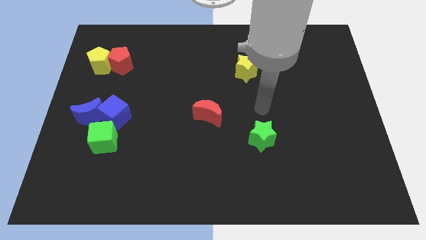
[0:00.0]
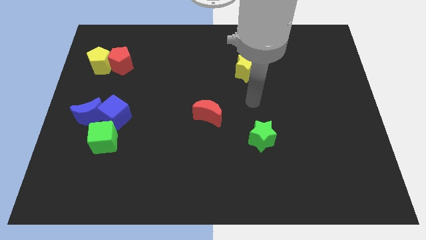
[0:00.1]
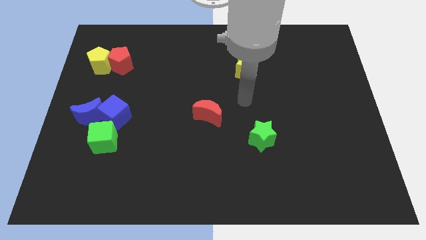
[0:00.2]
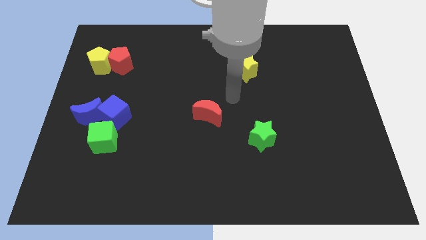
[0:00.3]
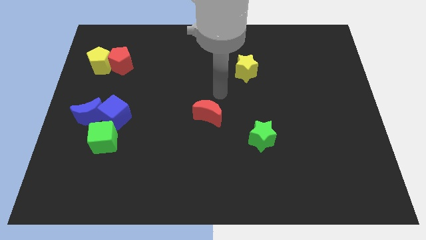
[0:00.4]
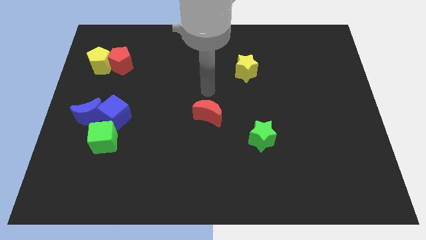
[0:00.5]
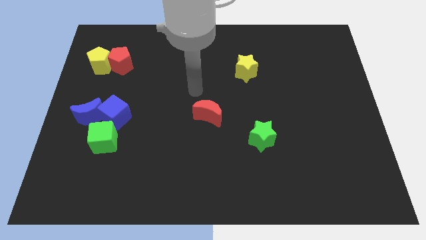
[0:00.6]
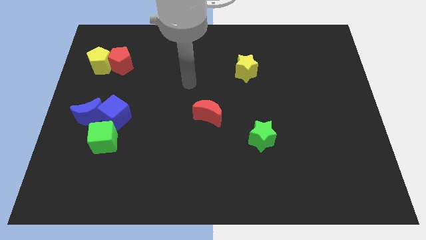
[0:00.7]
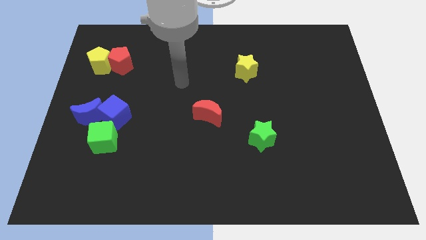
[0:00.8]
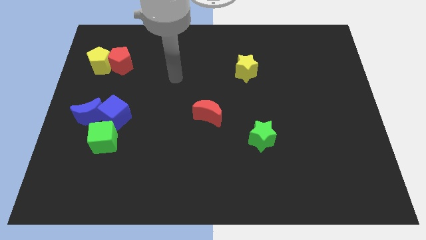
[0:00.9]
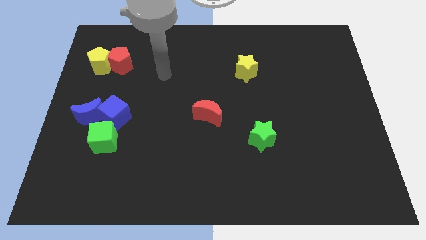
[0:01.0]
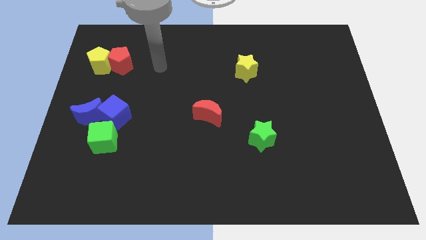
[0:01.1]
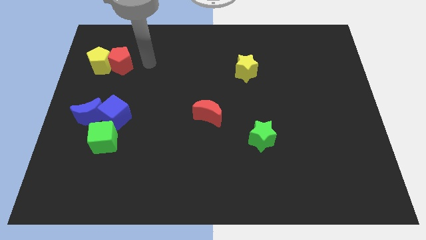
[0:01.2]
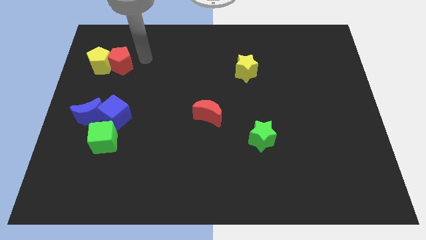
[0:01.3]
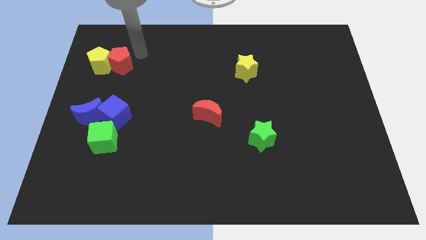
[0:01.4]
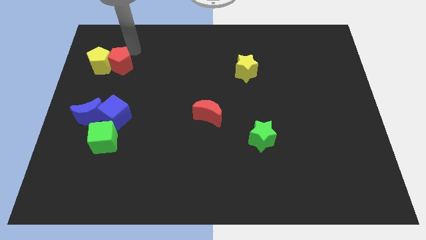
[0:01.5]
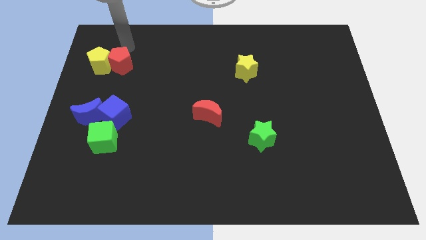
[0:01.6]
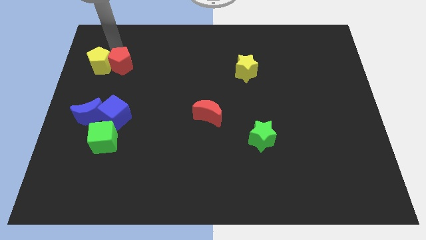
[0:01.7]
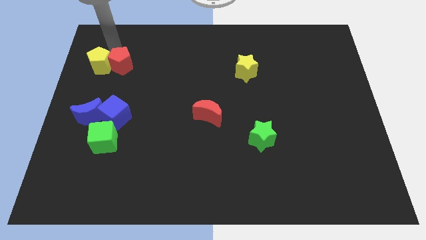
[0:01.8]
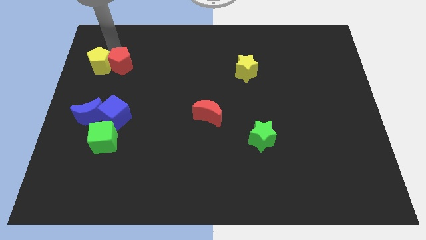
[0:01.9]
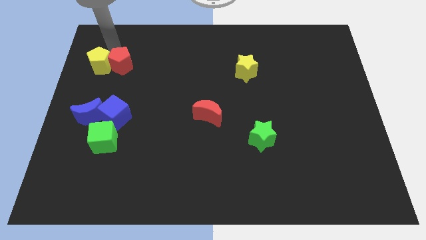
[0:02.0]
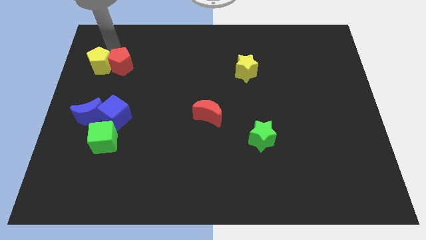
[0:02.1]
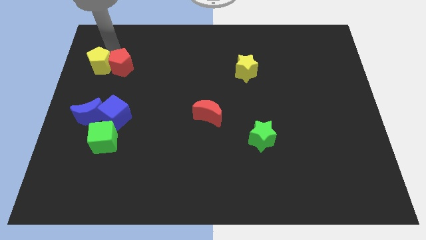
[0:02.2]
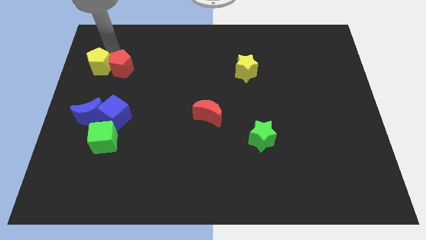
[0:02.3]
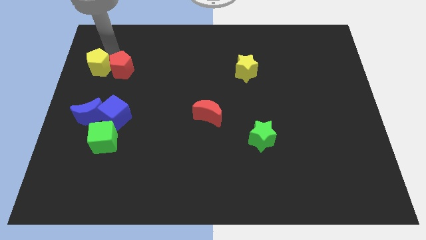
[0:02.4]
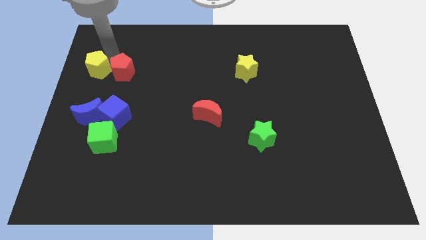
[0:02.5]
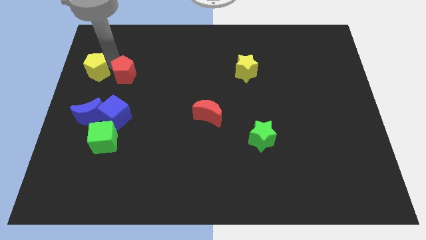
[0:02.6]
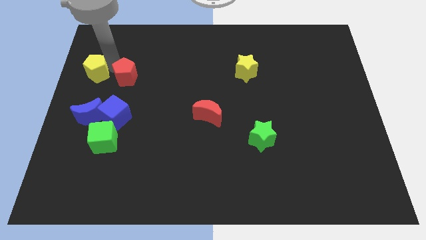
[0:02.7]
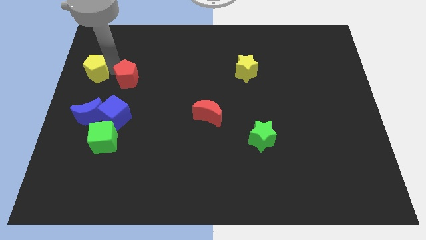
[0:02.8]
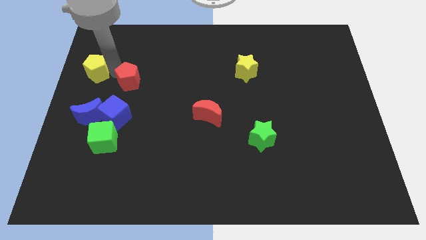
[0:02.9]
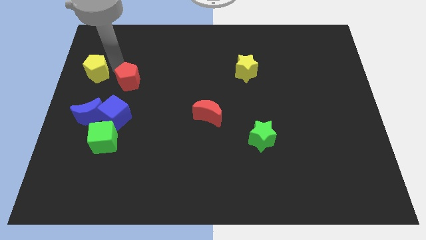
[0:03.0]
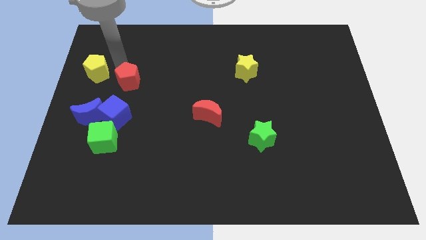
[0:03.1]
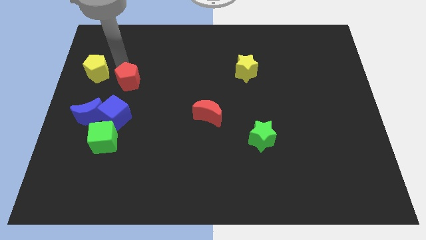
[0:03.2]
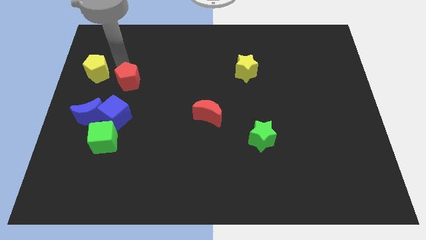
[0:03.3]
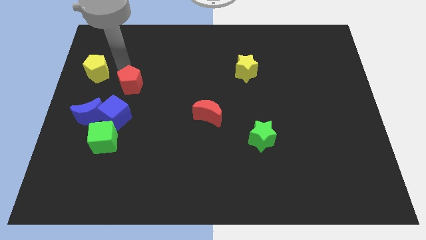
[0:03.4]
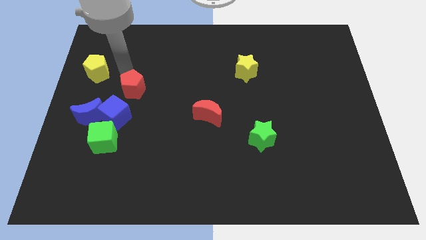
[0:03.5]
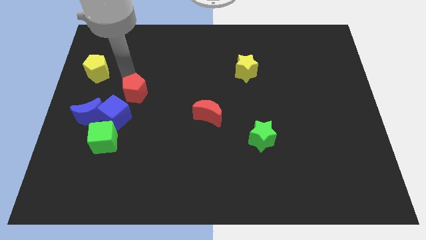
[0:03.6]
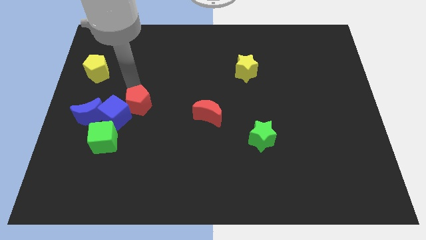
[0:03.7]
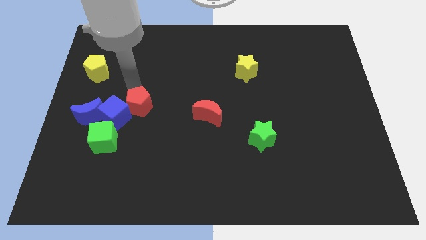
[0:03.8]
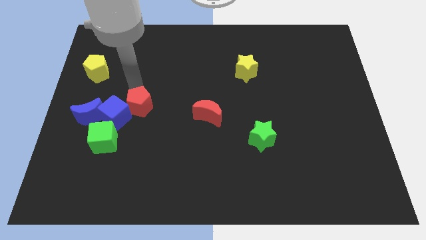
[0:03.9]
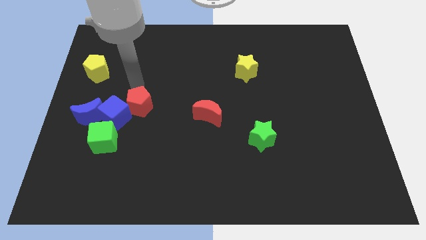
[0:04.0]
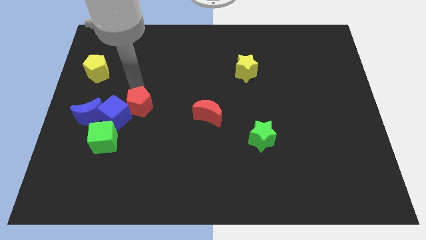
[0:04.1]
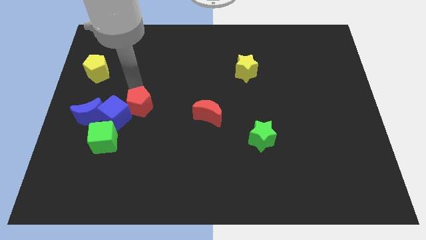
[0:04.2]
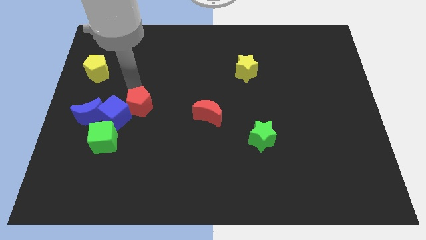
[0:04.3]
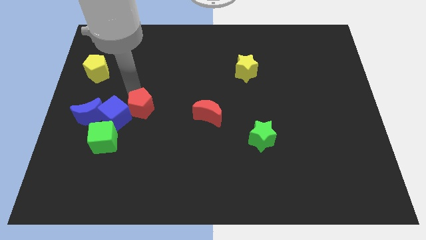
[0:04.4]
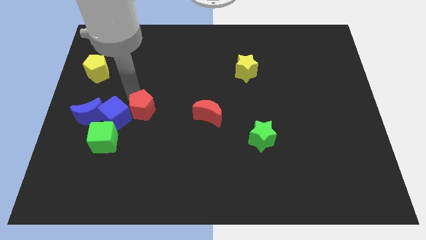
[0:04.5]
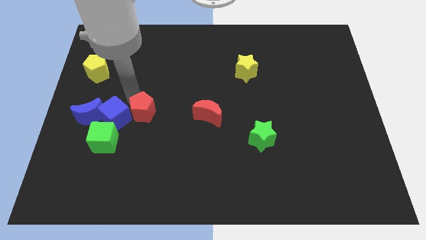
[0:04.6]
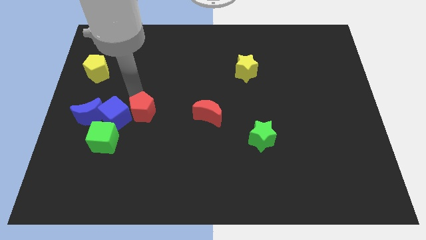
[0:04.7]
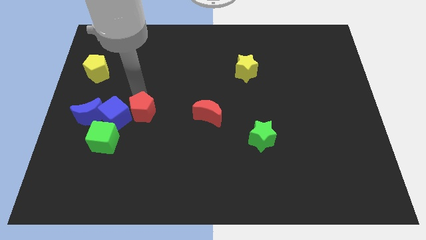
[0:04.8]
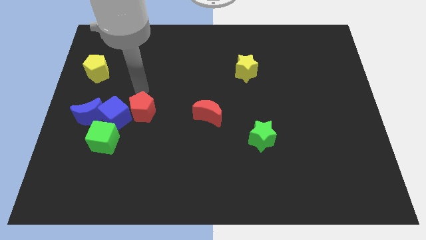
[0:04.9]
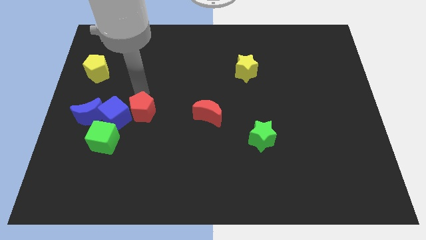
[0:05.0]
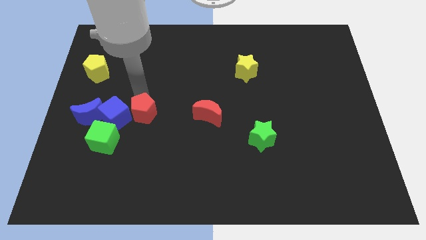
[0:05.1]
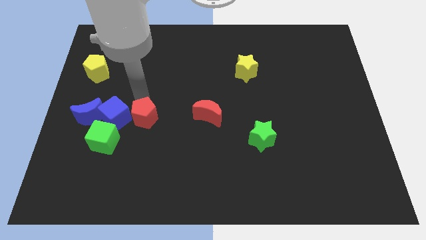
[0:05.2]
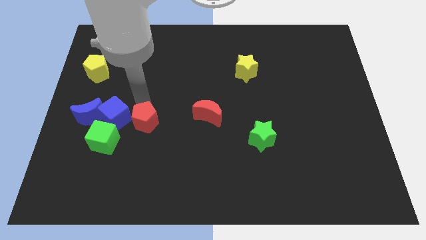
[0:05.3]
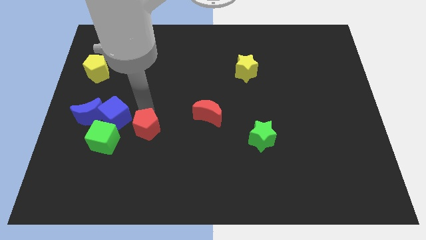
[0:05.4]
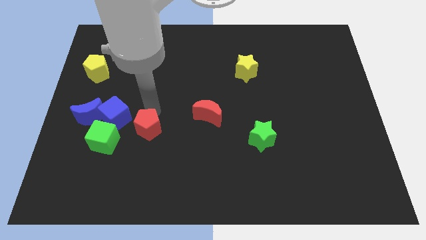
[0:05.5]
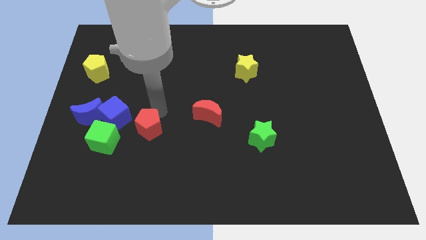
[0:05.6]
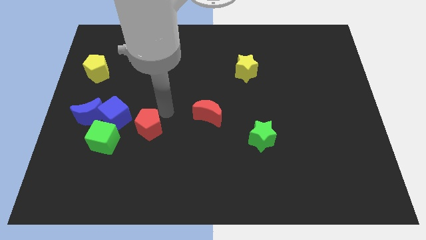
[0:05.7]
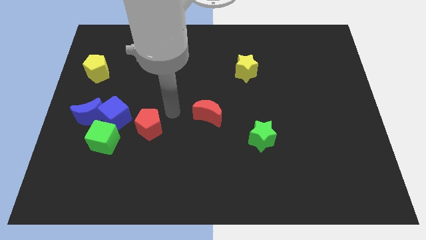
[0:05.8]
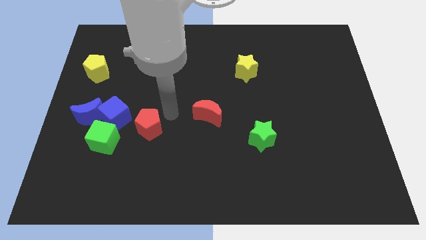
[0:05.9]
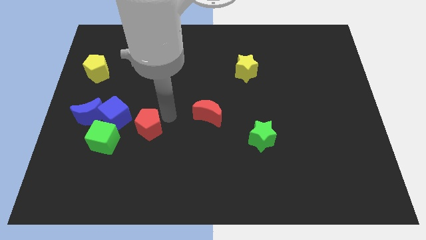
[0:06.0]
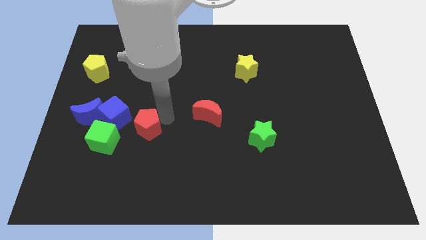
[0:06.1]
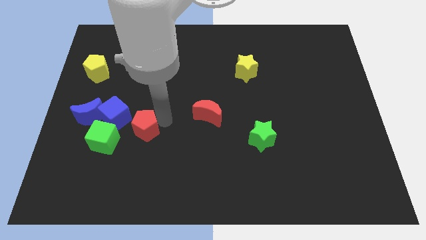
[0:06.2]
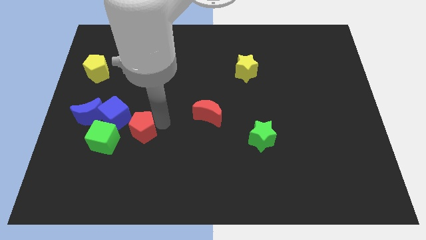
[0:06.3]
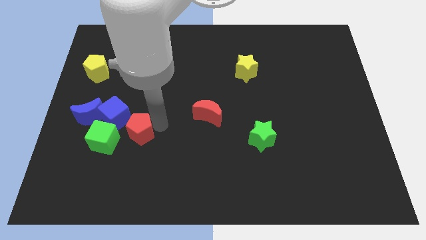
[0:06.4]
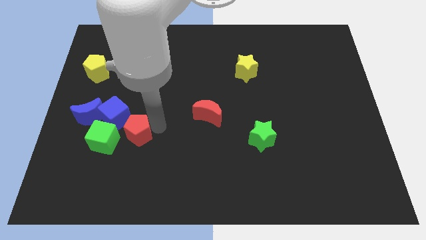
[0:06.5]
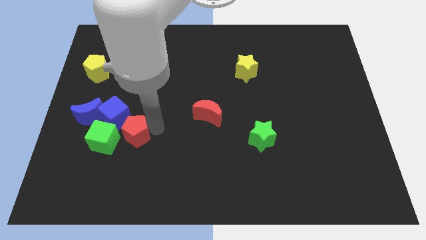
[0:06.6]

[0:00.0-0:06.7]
push the red pentagon down

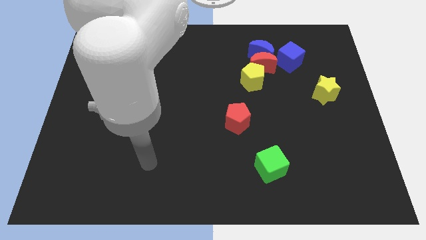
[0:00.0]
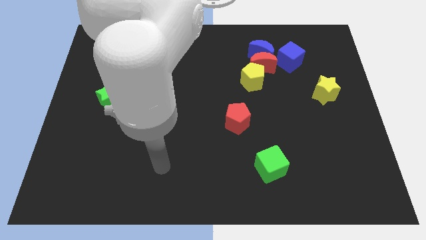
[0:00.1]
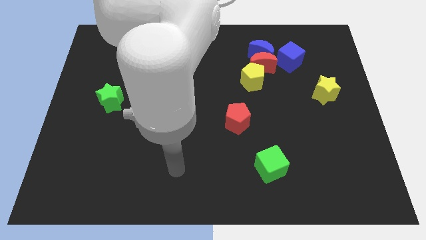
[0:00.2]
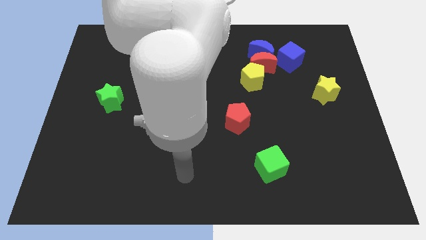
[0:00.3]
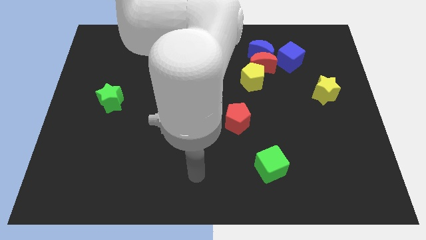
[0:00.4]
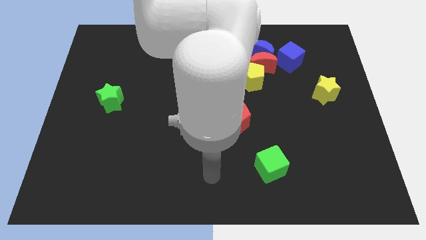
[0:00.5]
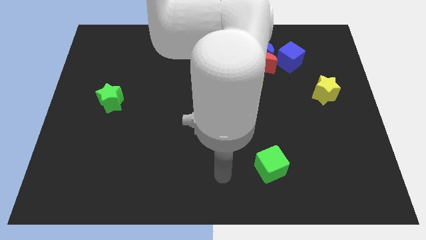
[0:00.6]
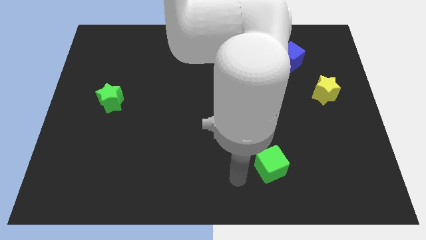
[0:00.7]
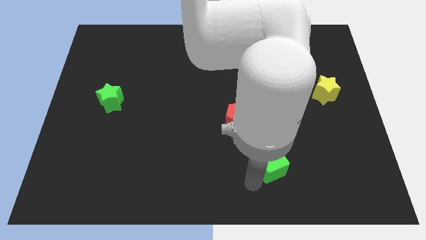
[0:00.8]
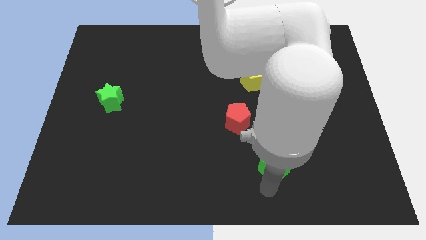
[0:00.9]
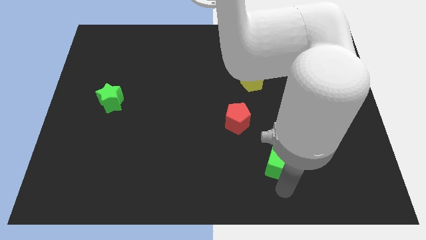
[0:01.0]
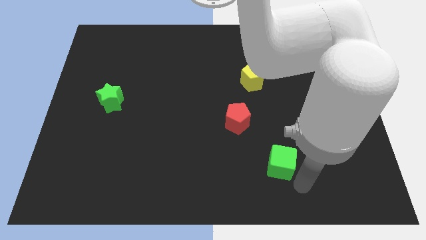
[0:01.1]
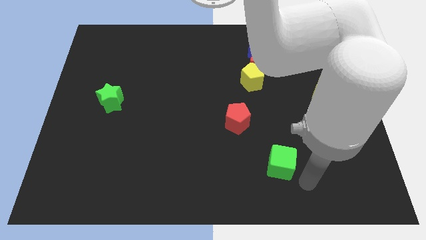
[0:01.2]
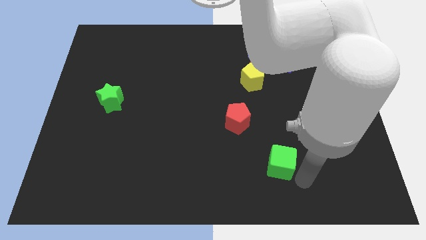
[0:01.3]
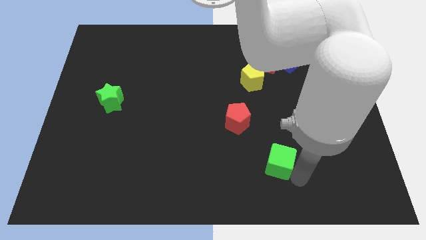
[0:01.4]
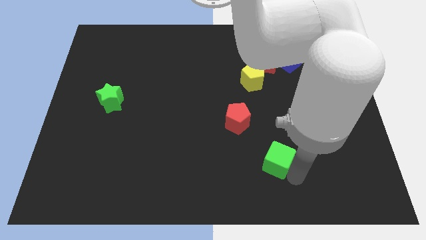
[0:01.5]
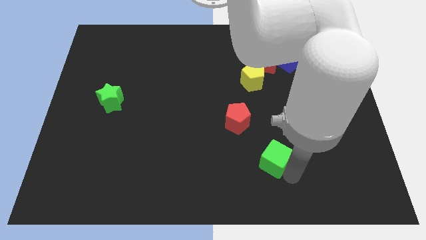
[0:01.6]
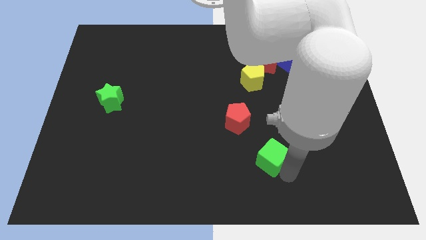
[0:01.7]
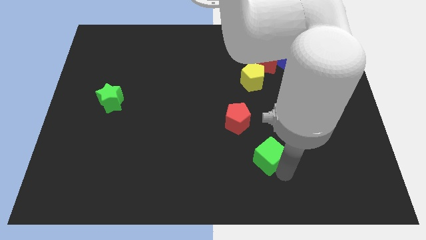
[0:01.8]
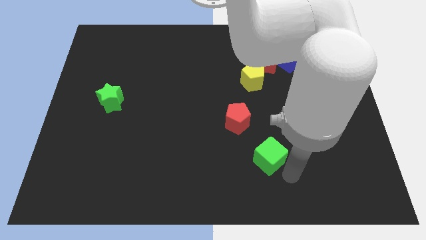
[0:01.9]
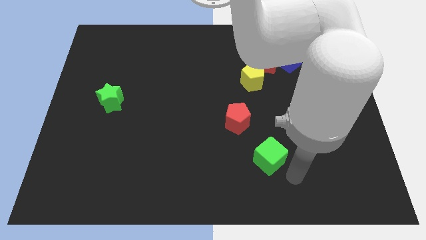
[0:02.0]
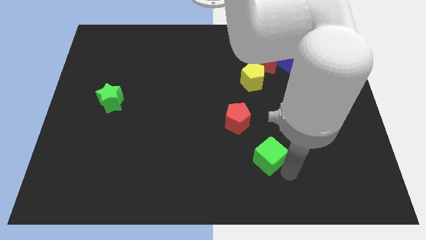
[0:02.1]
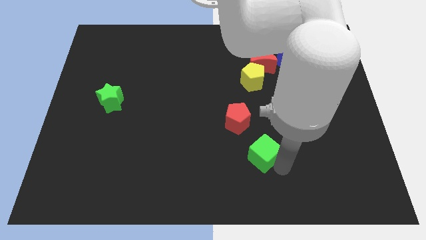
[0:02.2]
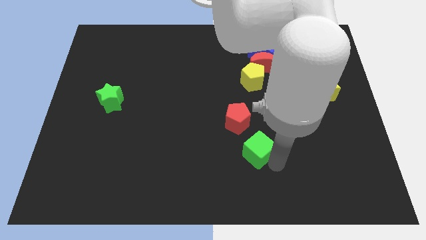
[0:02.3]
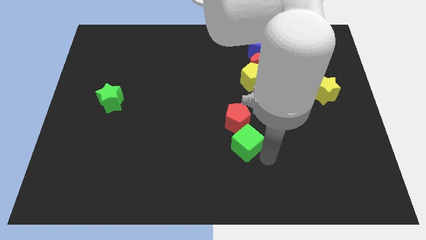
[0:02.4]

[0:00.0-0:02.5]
move the green cube somewhat upwards and left diagonally
